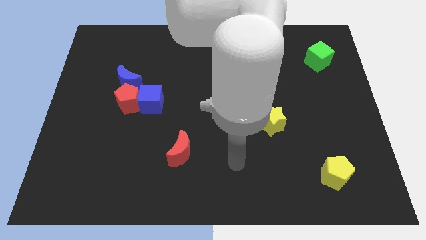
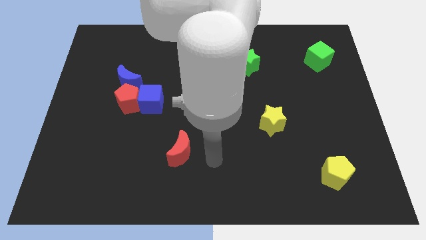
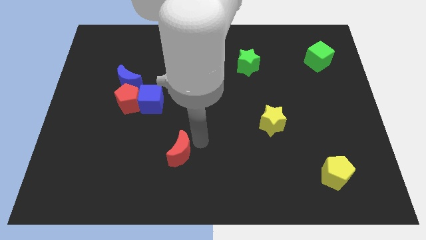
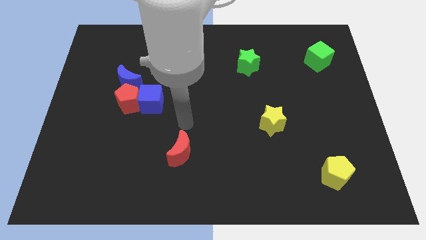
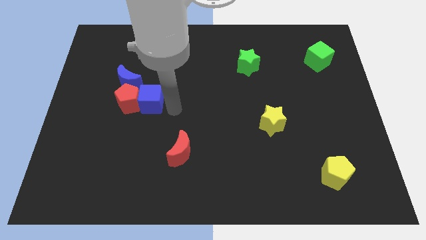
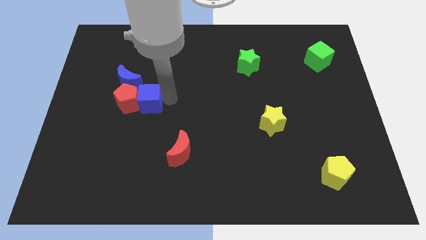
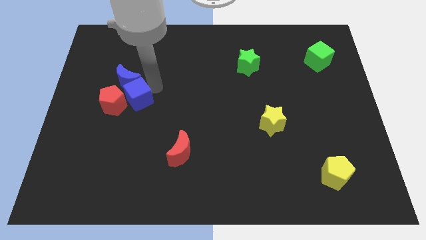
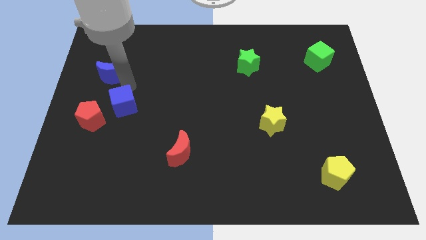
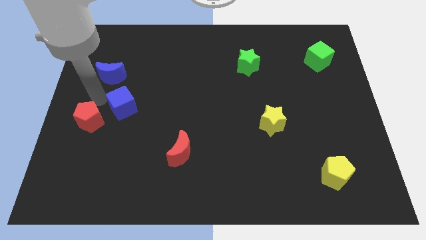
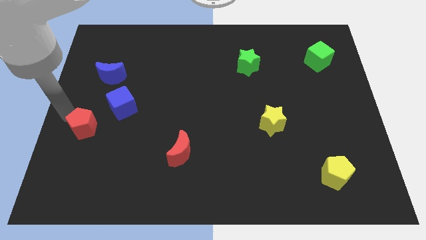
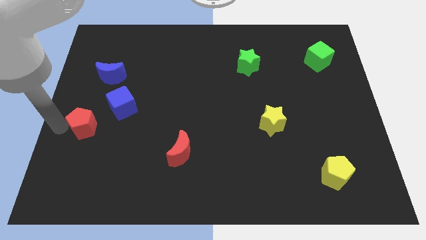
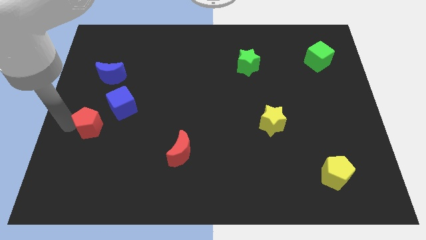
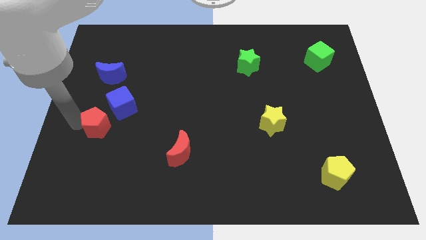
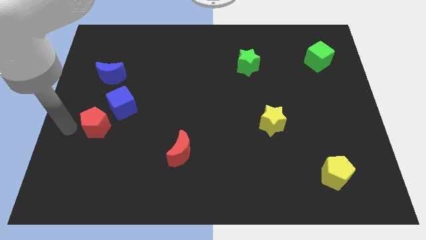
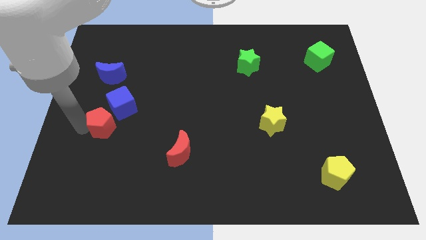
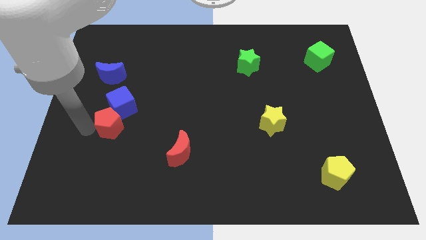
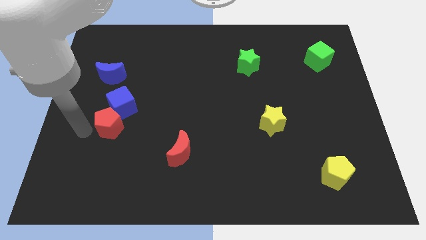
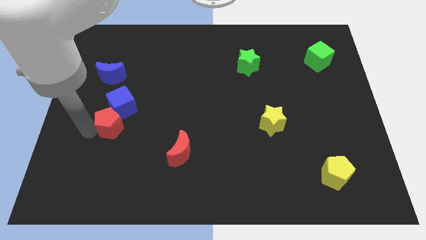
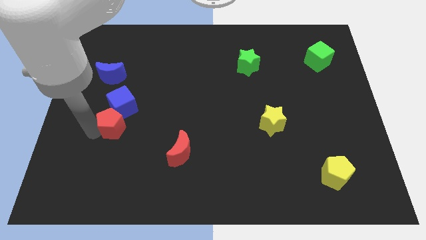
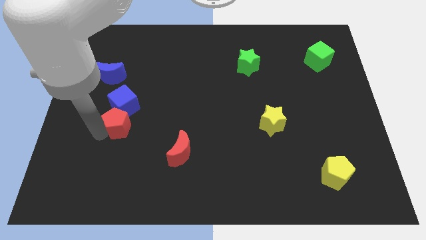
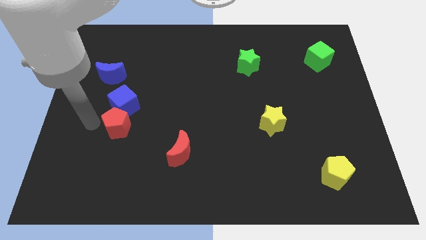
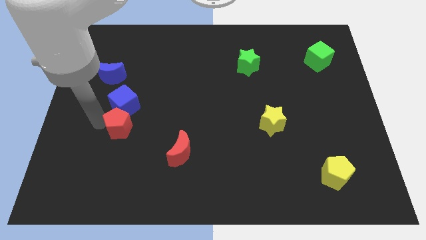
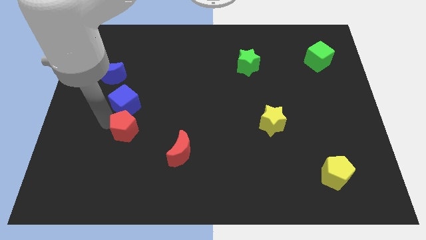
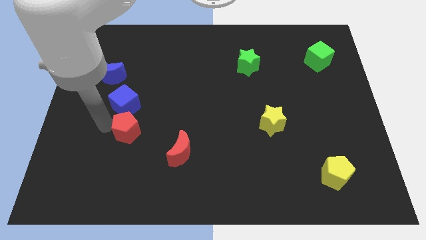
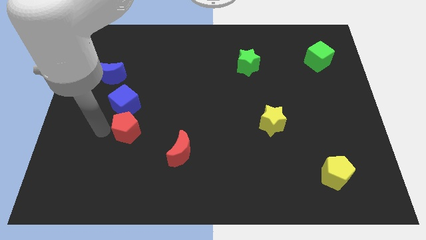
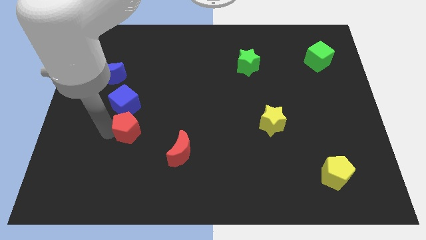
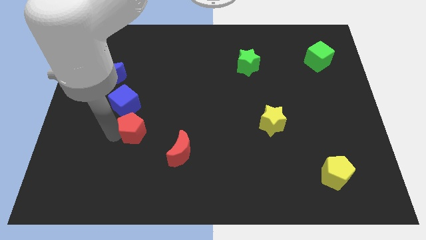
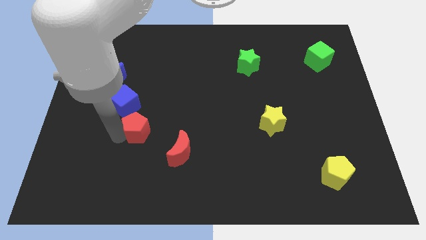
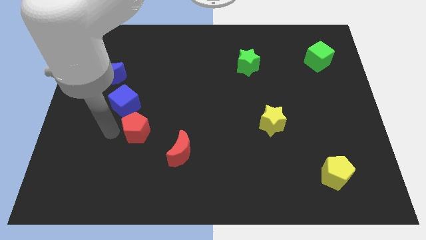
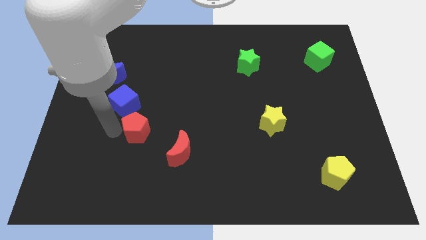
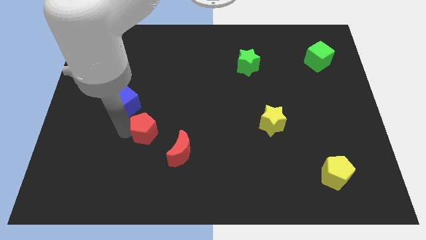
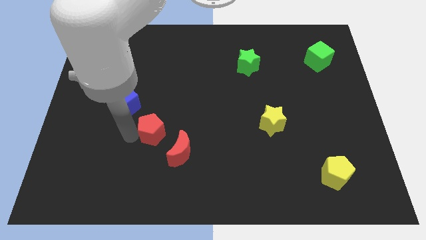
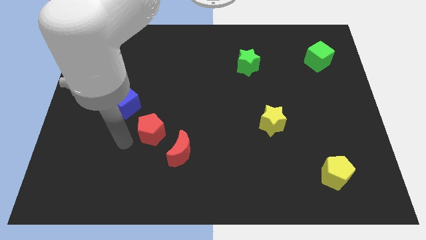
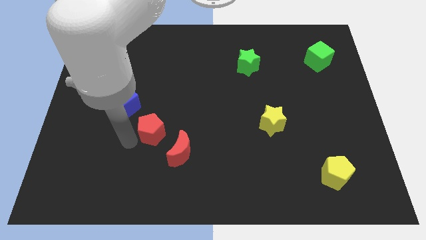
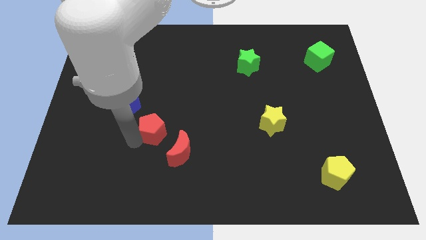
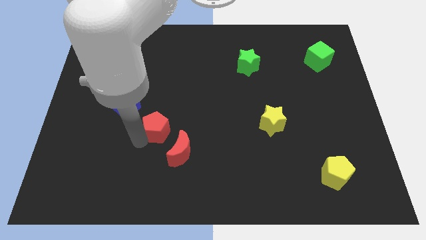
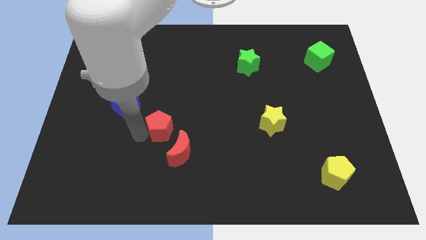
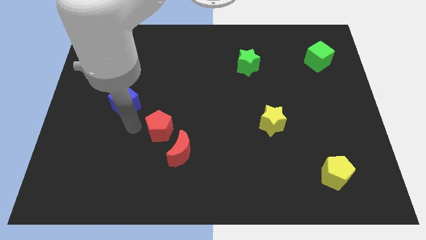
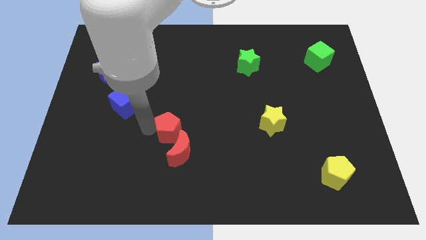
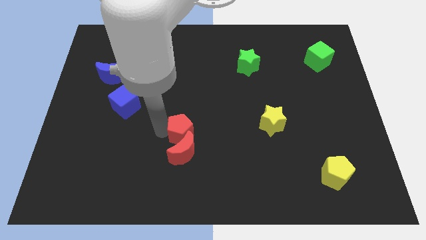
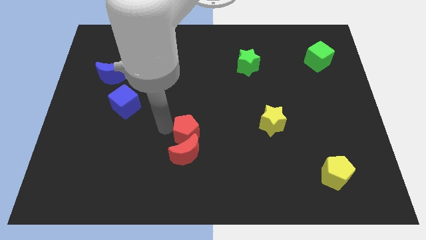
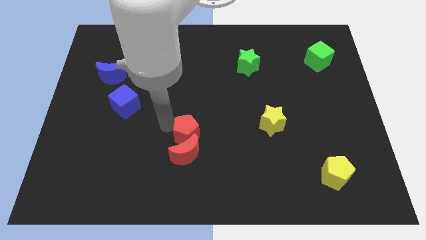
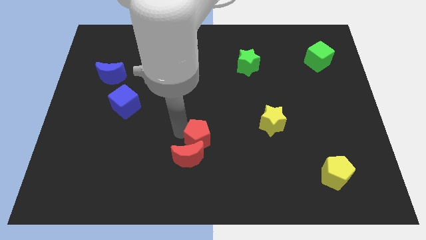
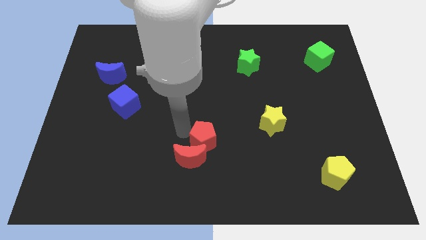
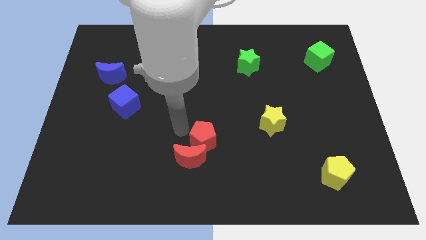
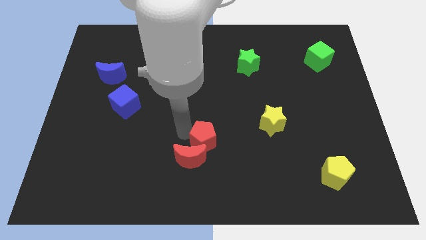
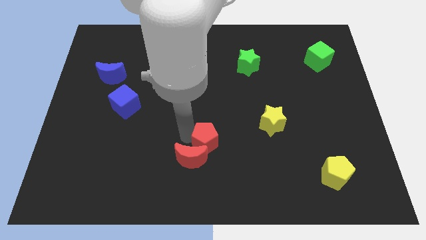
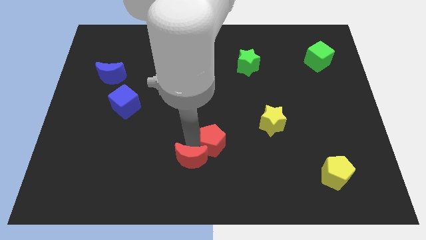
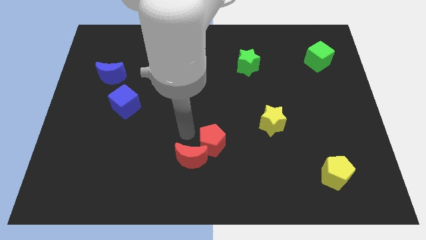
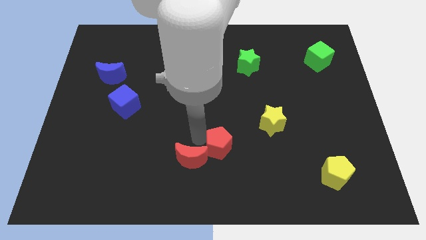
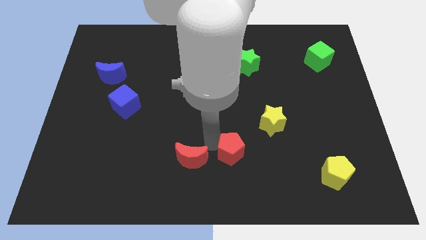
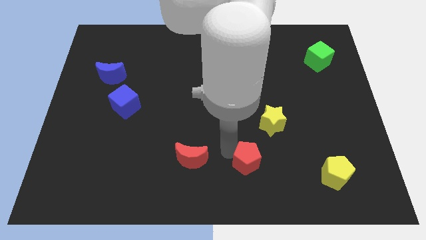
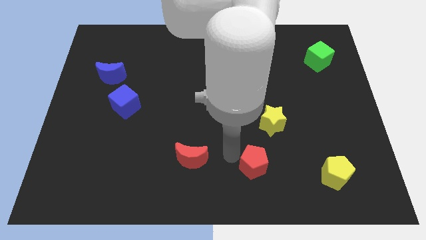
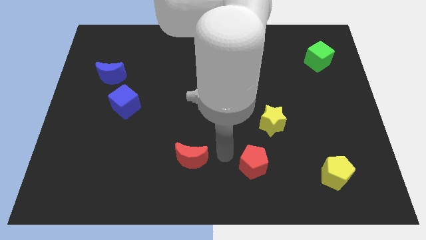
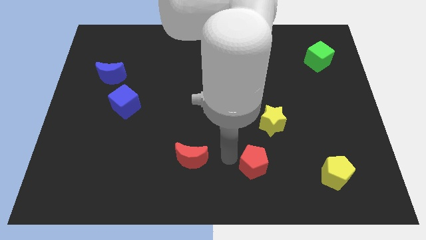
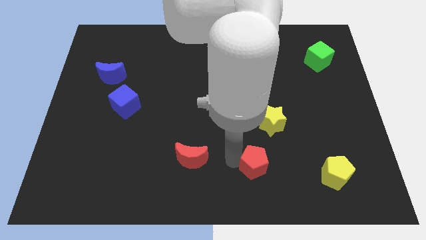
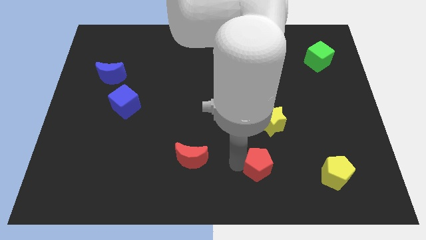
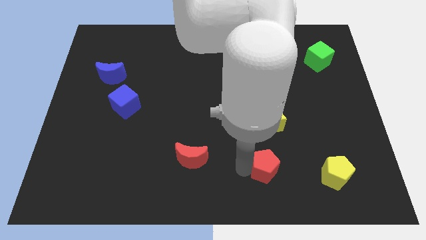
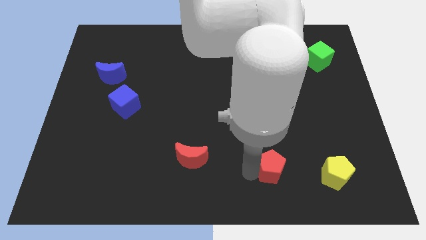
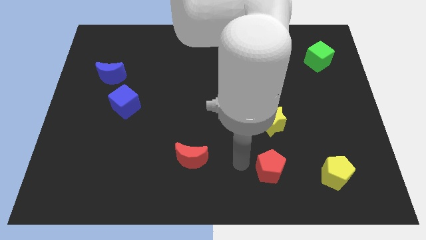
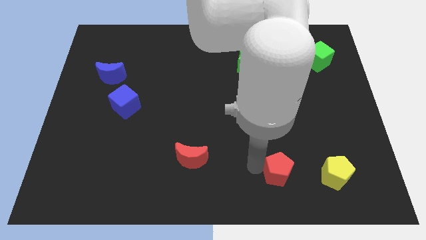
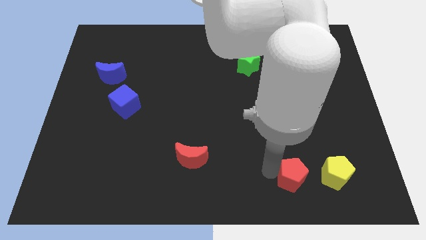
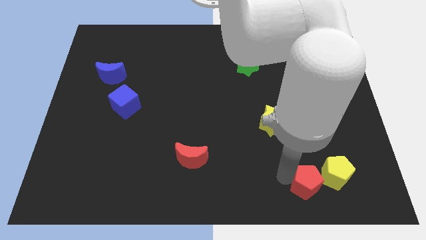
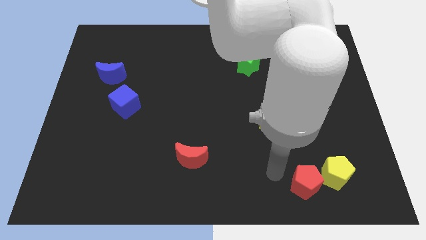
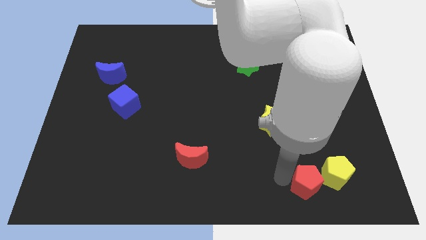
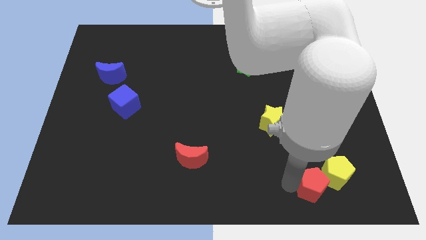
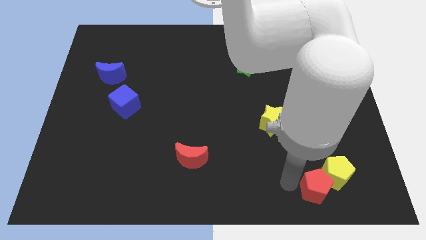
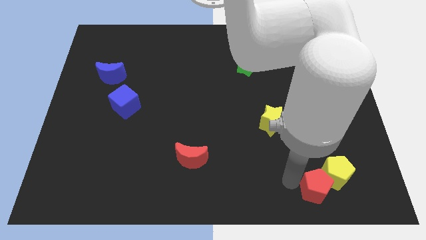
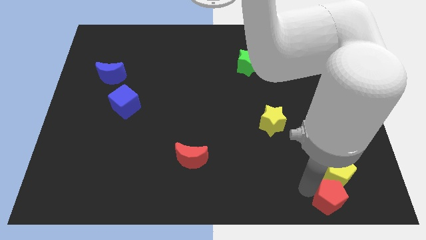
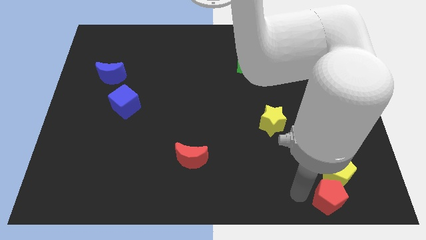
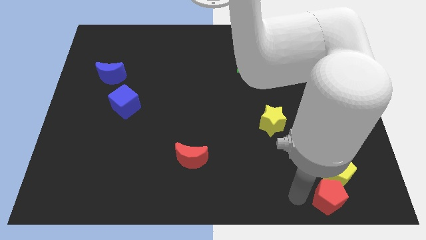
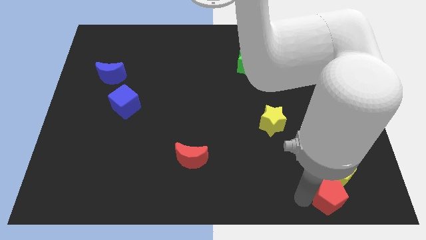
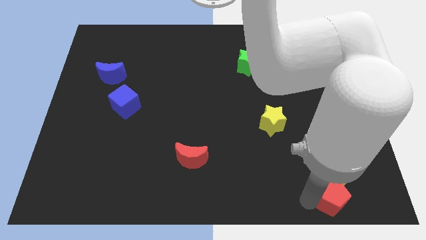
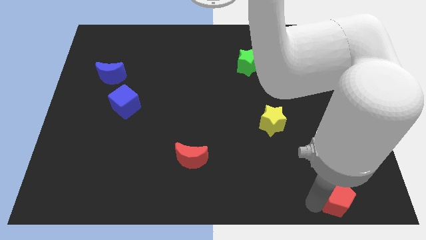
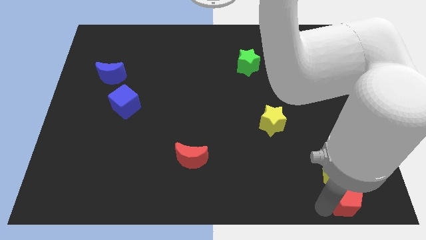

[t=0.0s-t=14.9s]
put the red pentagon to the bottom right
